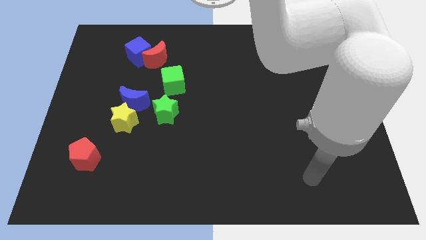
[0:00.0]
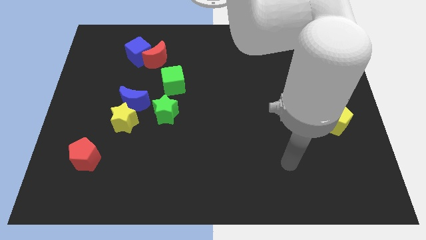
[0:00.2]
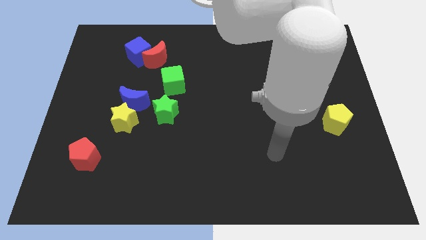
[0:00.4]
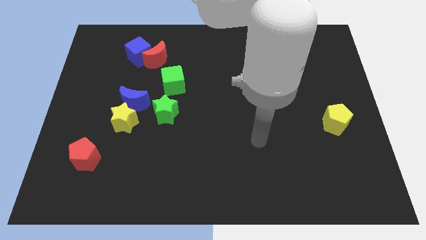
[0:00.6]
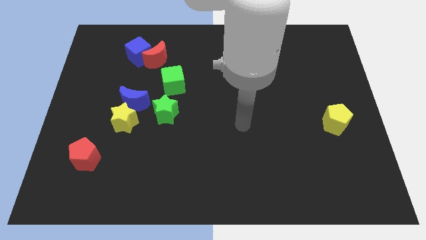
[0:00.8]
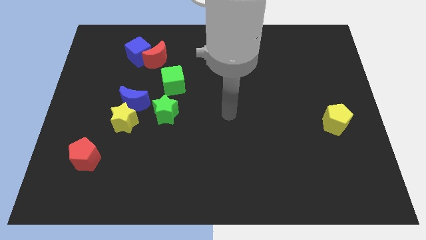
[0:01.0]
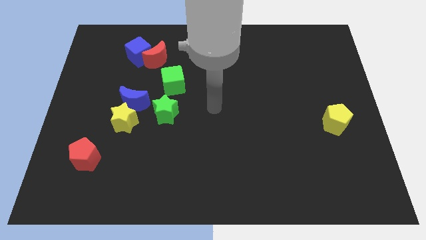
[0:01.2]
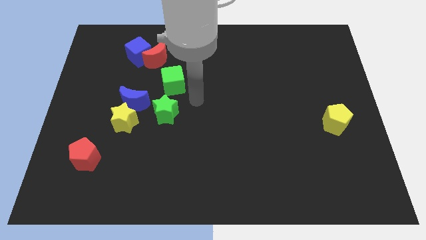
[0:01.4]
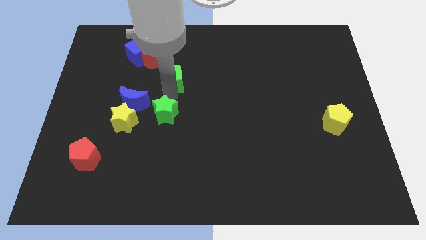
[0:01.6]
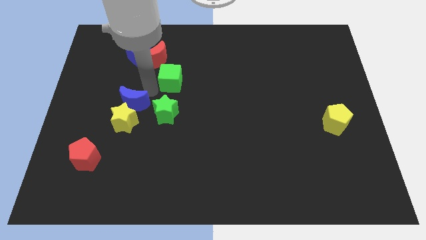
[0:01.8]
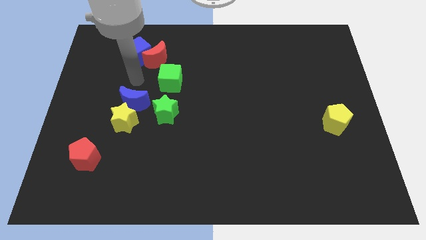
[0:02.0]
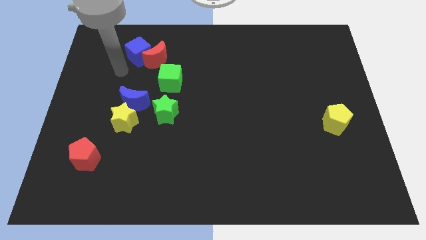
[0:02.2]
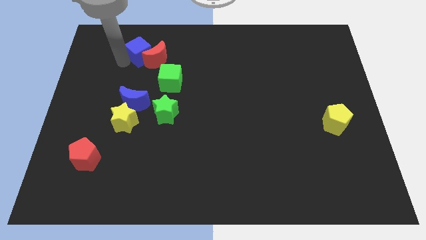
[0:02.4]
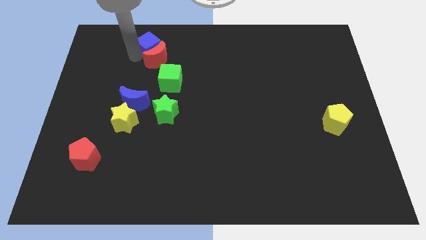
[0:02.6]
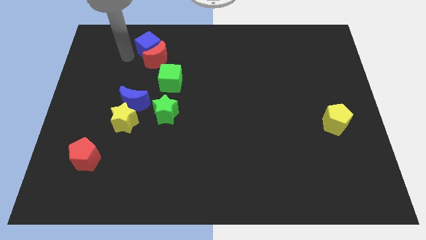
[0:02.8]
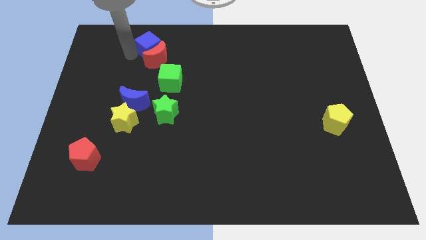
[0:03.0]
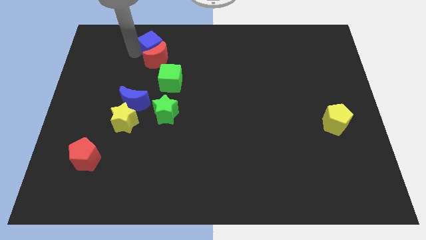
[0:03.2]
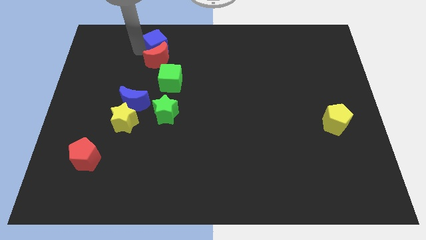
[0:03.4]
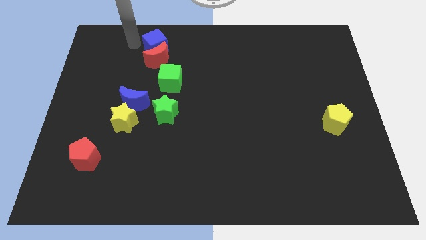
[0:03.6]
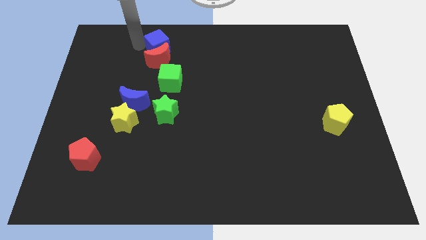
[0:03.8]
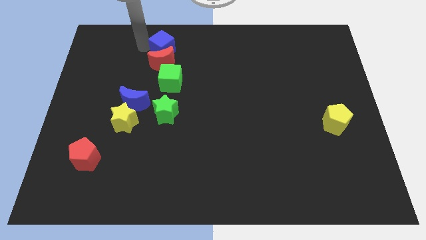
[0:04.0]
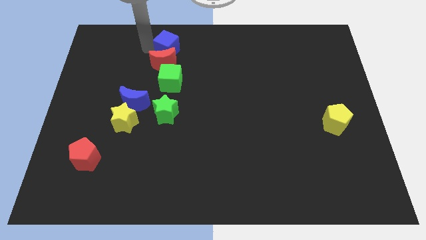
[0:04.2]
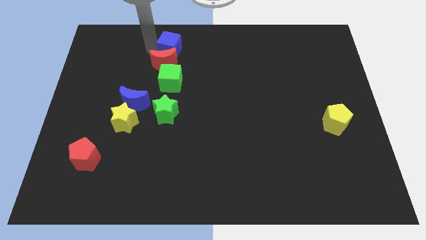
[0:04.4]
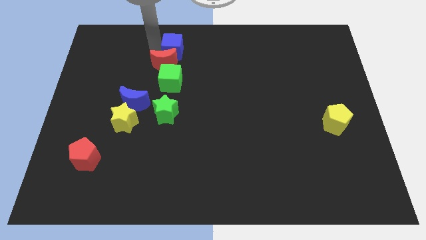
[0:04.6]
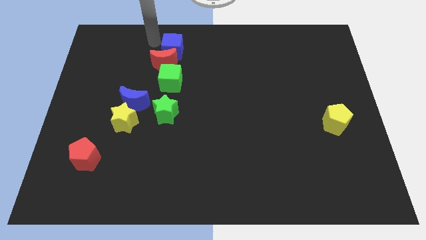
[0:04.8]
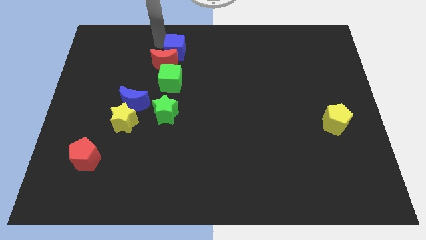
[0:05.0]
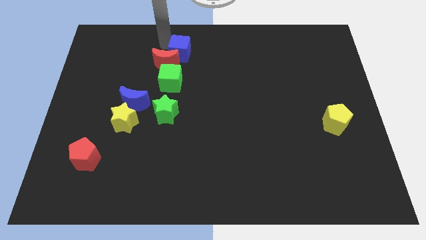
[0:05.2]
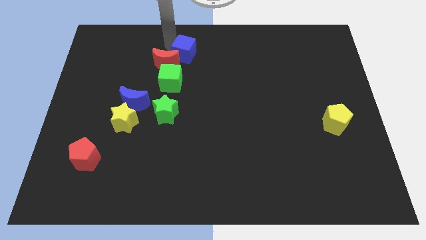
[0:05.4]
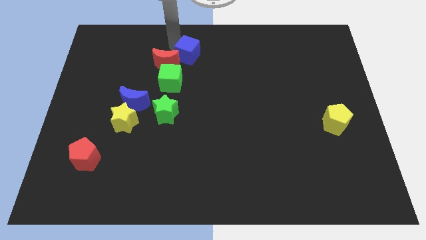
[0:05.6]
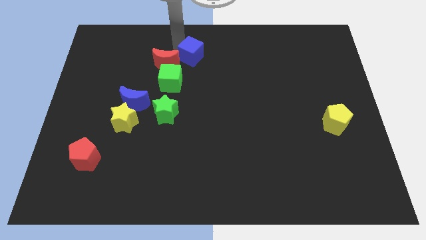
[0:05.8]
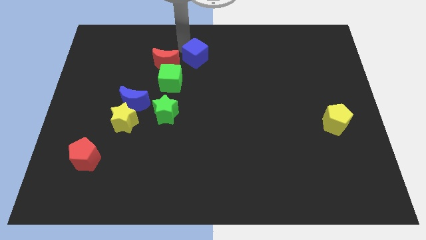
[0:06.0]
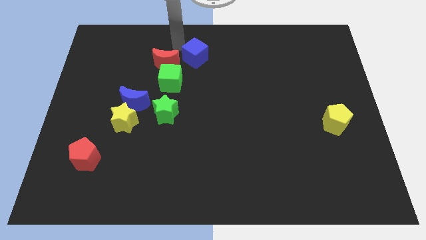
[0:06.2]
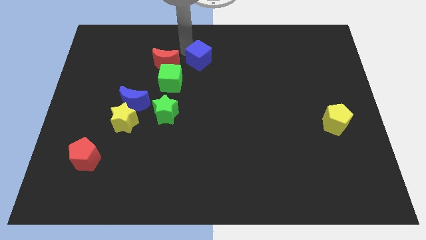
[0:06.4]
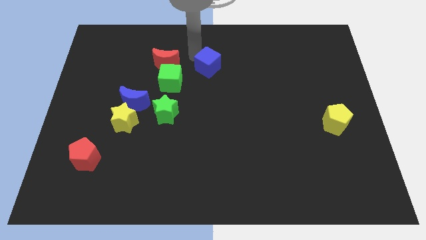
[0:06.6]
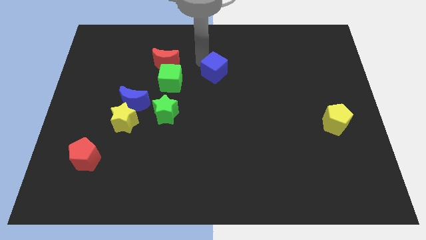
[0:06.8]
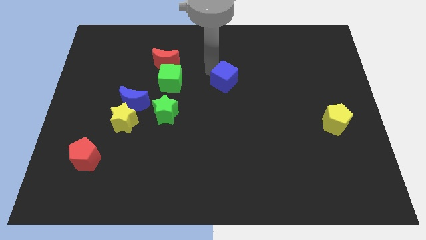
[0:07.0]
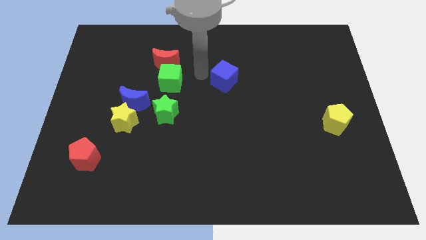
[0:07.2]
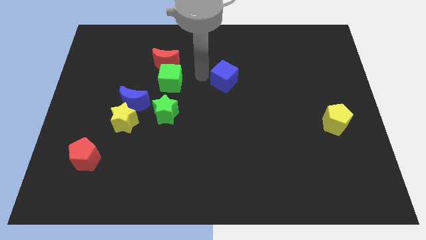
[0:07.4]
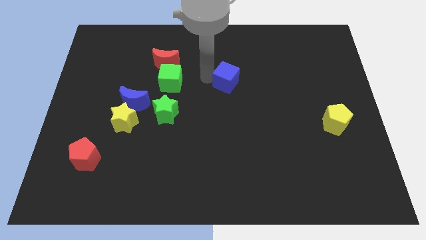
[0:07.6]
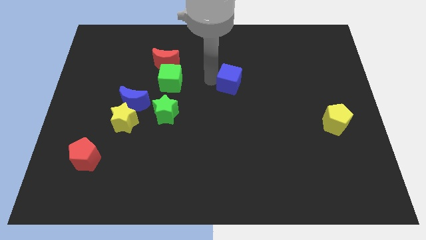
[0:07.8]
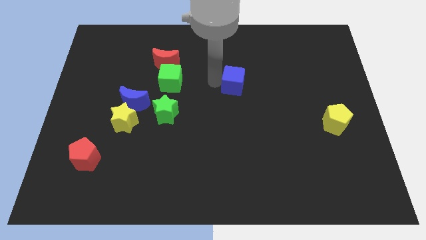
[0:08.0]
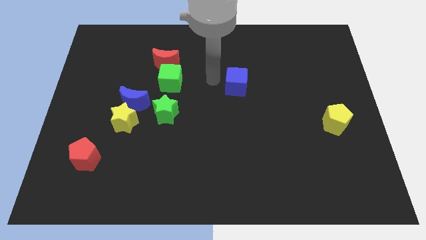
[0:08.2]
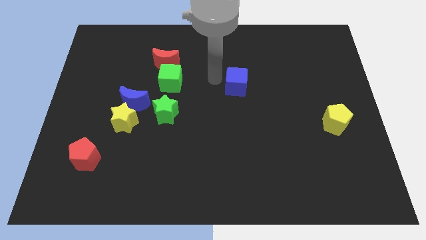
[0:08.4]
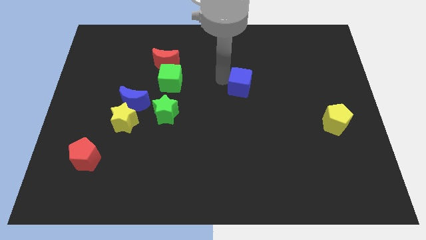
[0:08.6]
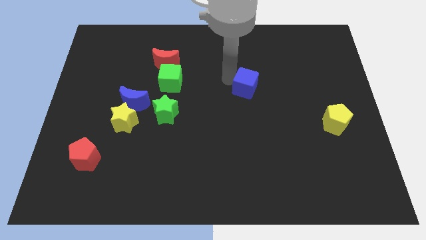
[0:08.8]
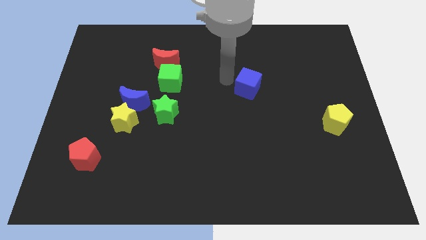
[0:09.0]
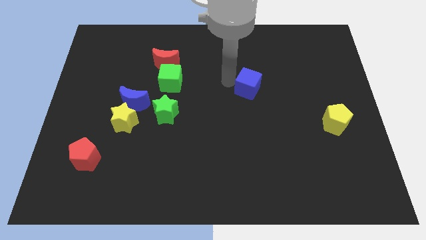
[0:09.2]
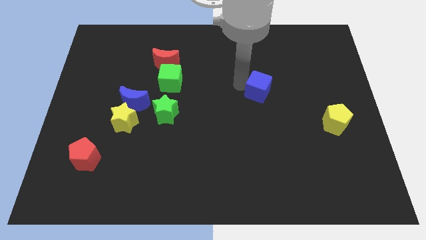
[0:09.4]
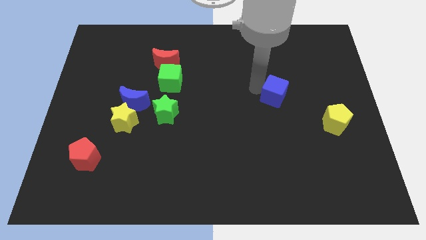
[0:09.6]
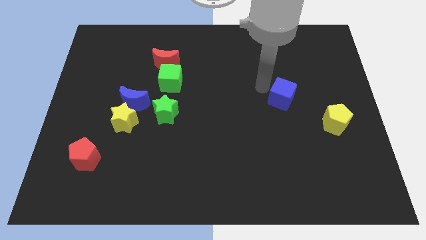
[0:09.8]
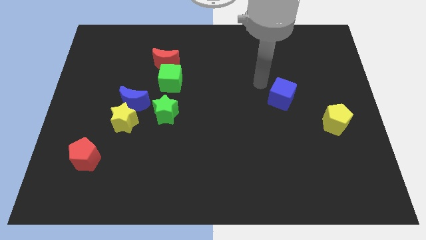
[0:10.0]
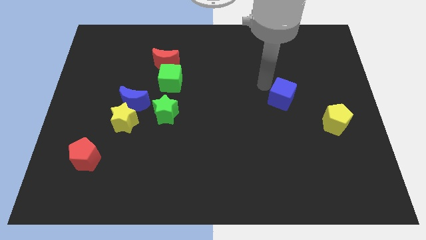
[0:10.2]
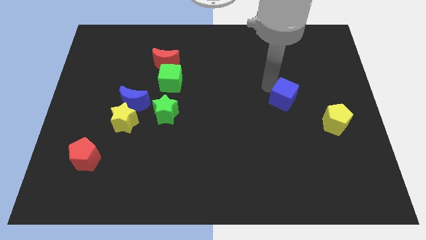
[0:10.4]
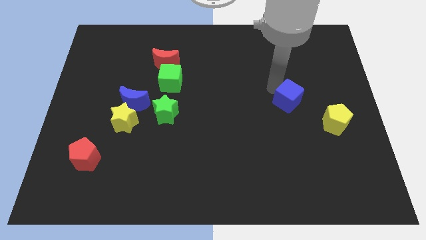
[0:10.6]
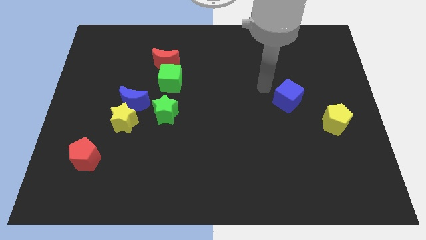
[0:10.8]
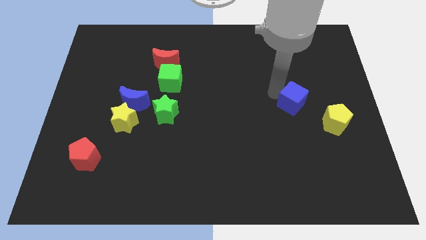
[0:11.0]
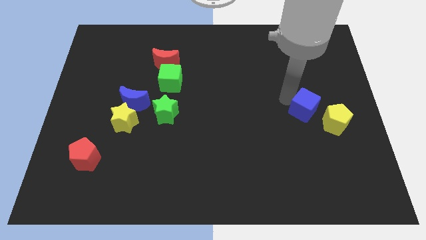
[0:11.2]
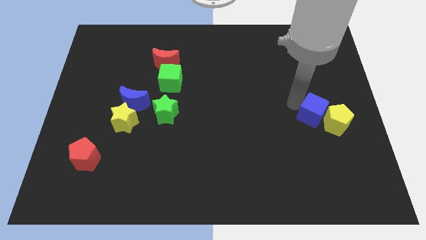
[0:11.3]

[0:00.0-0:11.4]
move the blue cube close to the yellow pentagon

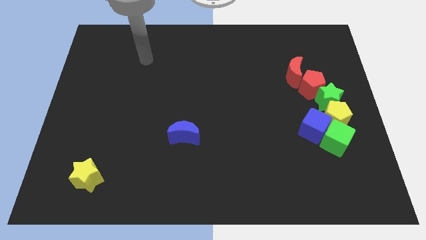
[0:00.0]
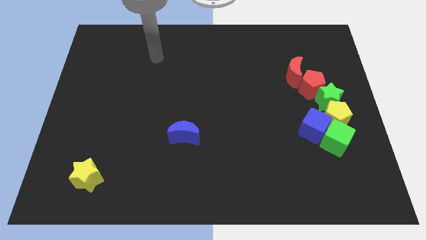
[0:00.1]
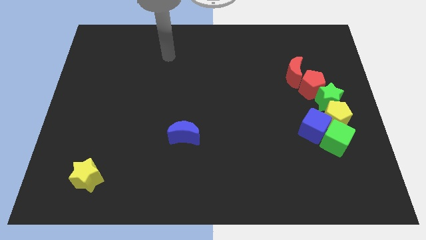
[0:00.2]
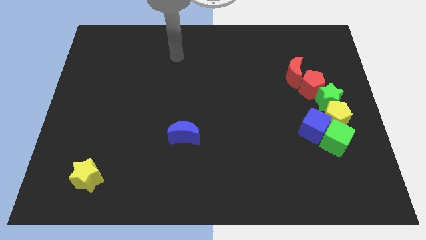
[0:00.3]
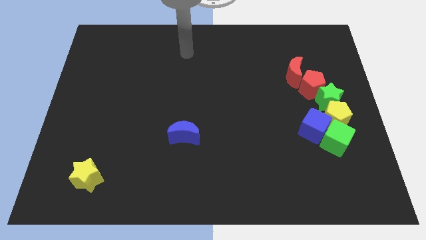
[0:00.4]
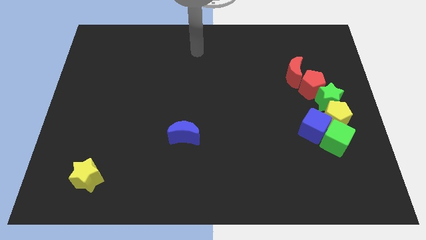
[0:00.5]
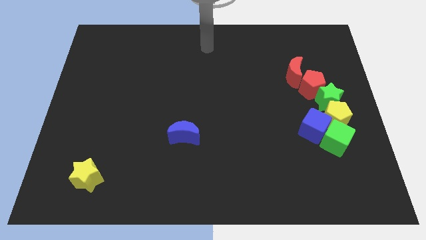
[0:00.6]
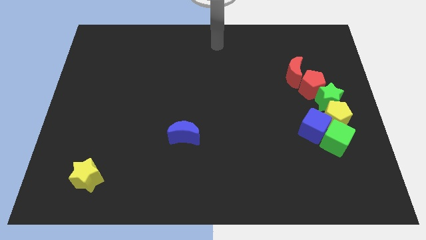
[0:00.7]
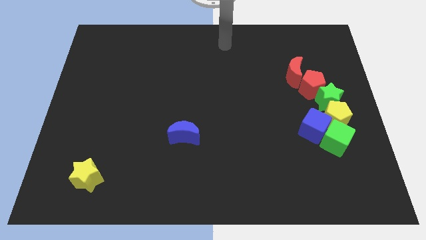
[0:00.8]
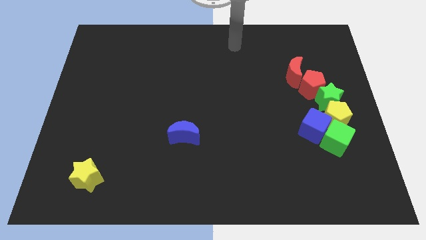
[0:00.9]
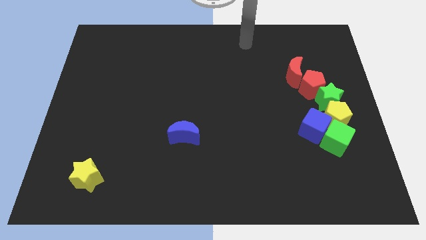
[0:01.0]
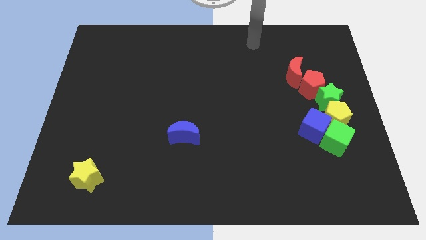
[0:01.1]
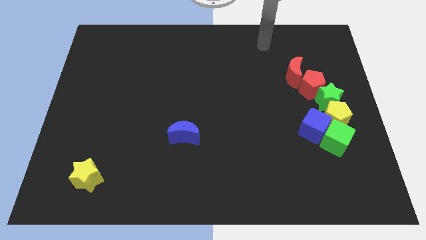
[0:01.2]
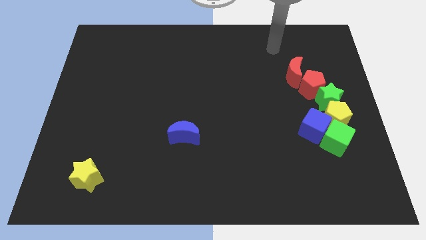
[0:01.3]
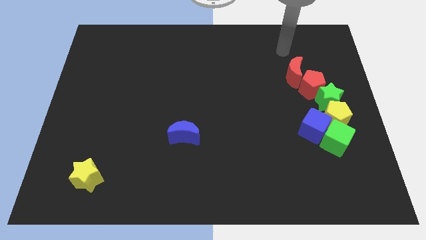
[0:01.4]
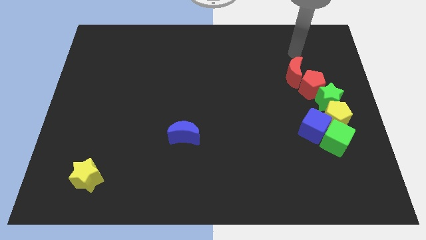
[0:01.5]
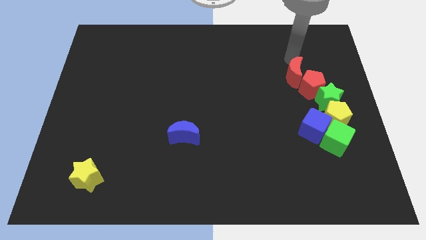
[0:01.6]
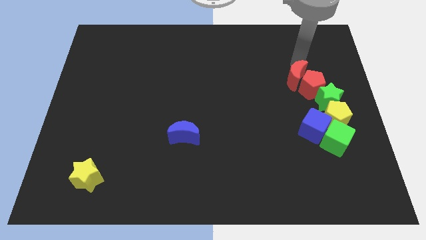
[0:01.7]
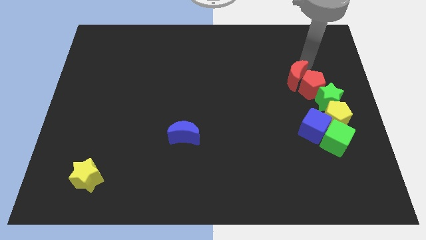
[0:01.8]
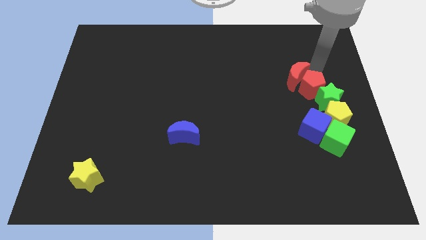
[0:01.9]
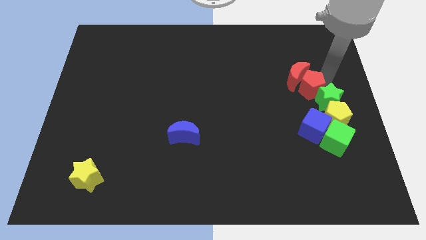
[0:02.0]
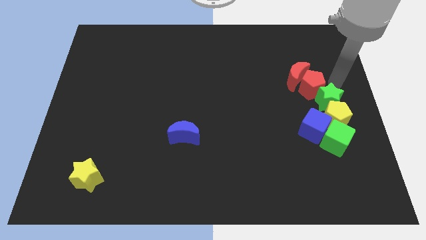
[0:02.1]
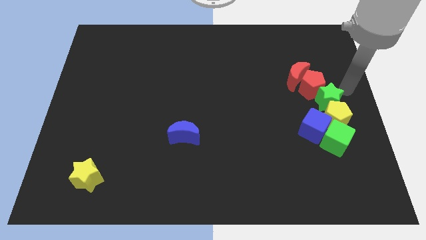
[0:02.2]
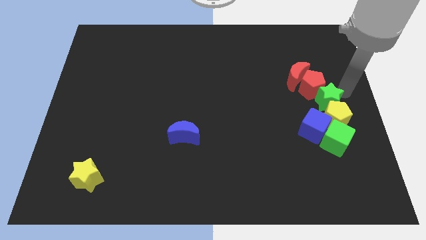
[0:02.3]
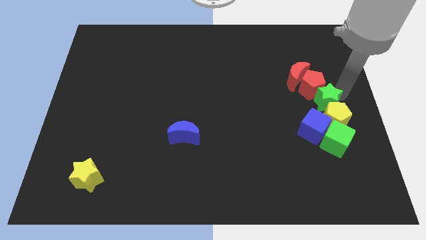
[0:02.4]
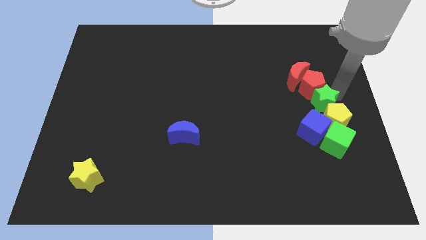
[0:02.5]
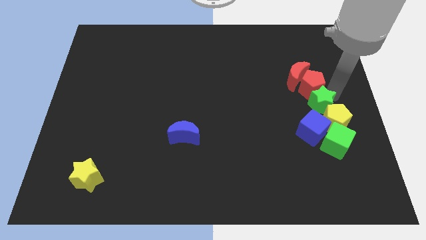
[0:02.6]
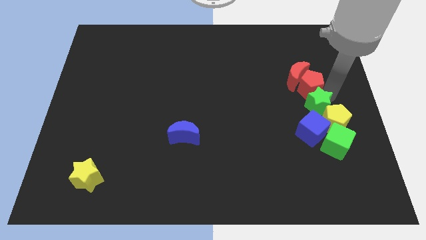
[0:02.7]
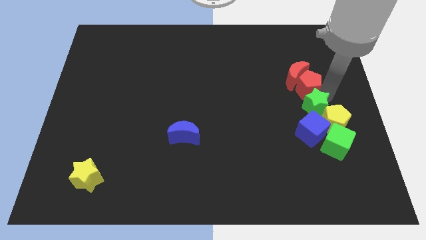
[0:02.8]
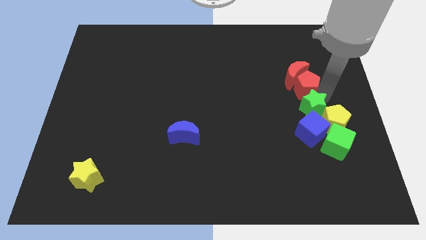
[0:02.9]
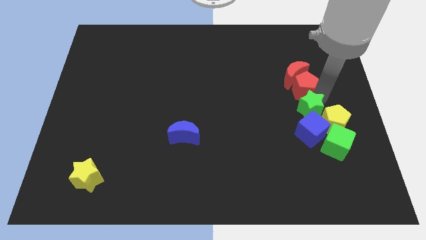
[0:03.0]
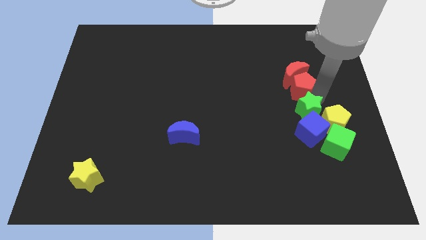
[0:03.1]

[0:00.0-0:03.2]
slide the green star next to the blue cube
